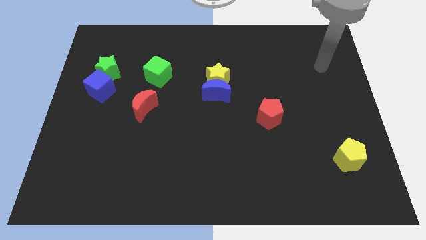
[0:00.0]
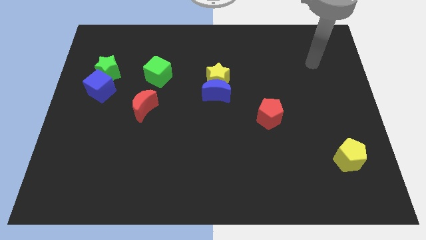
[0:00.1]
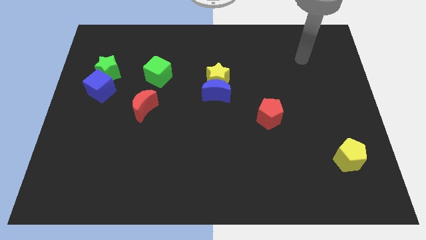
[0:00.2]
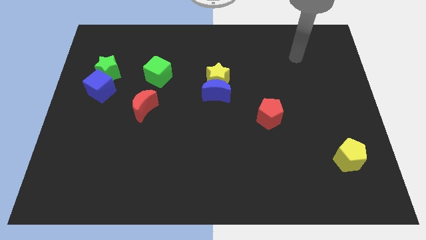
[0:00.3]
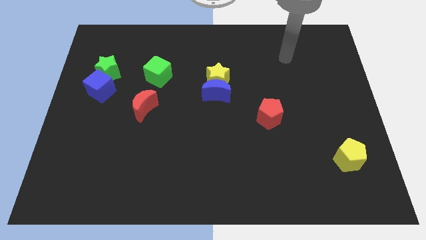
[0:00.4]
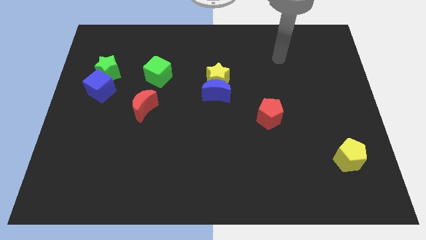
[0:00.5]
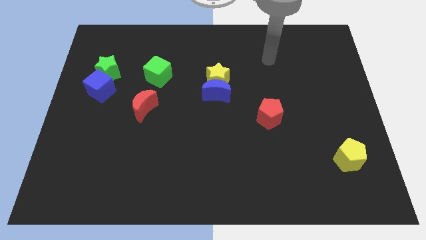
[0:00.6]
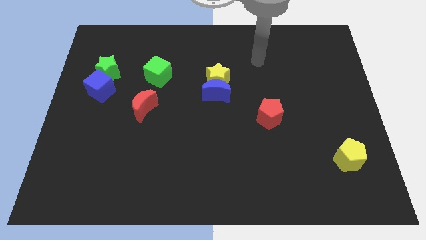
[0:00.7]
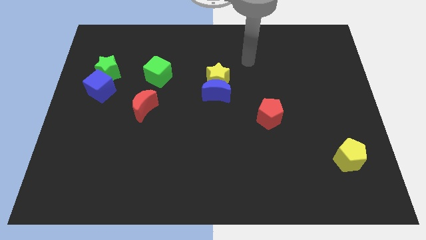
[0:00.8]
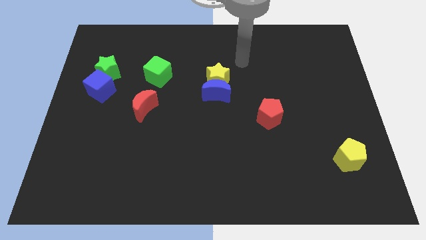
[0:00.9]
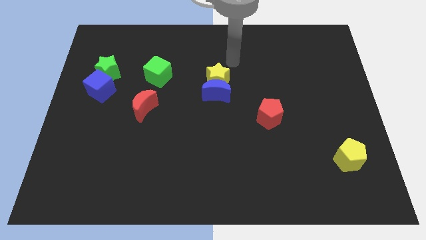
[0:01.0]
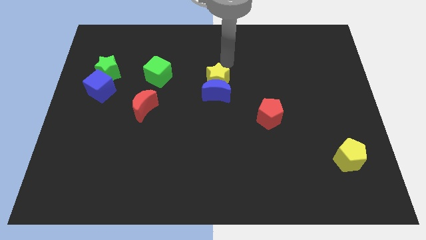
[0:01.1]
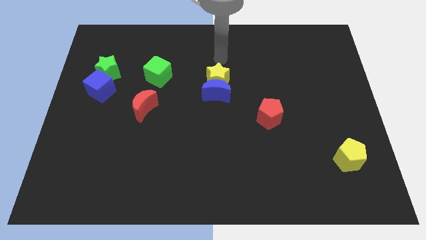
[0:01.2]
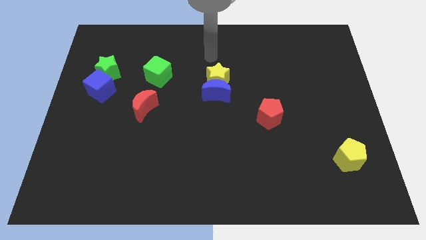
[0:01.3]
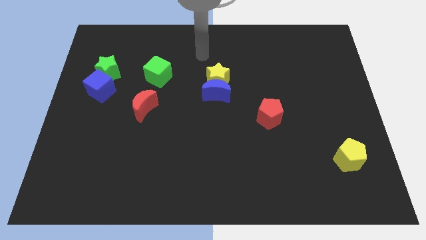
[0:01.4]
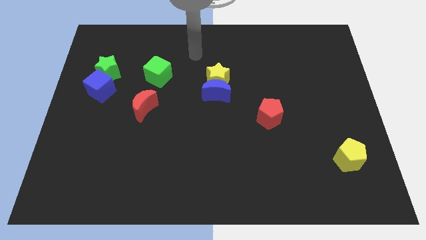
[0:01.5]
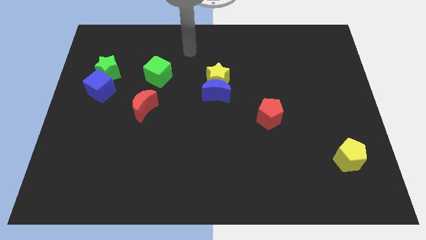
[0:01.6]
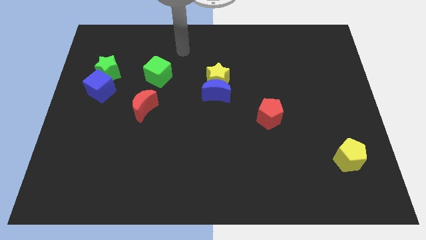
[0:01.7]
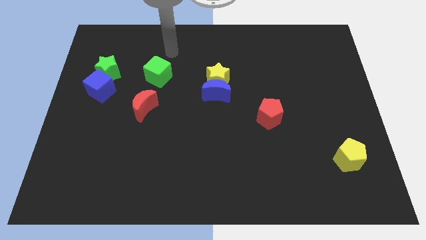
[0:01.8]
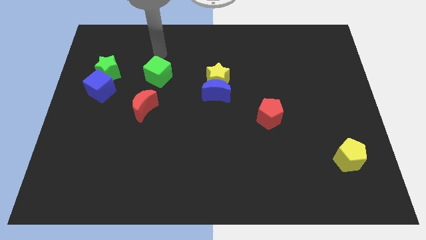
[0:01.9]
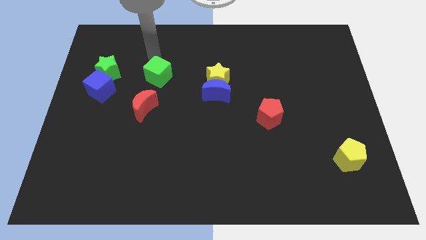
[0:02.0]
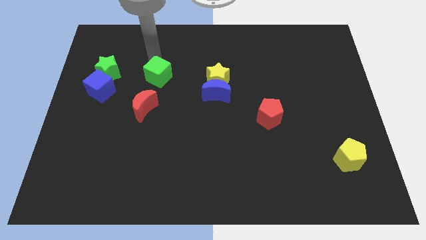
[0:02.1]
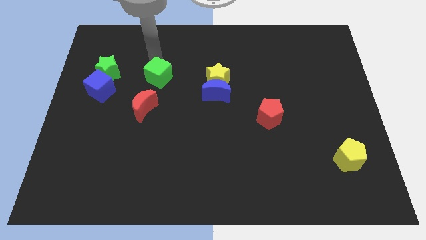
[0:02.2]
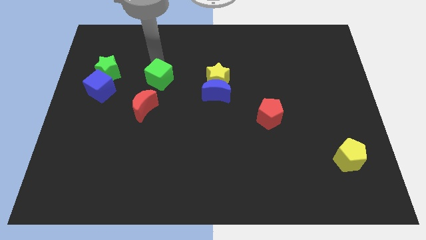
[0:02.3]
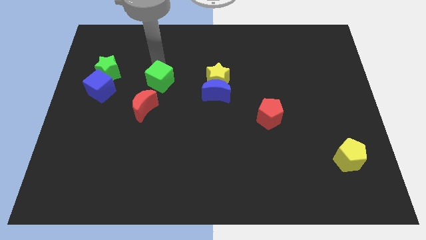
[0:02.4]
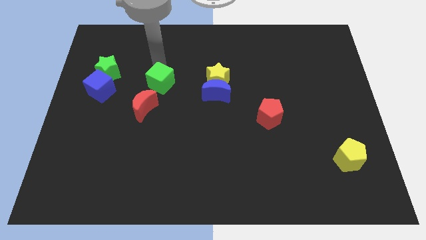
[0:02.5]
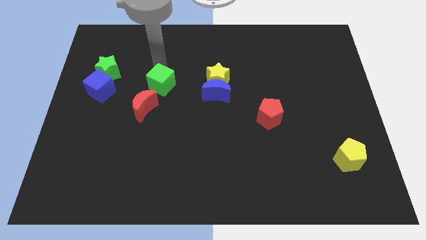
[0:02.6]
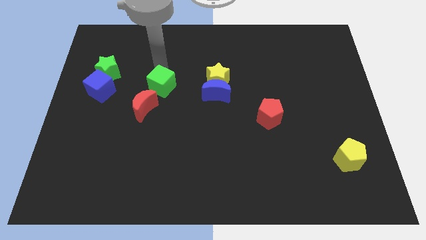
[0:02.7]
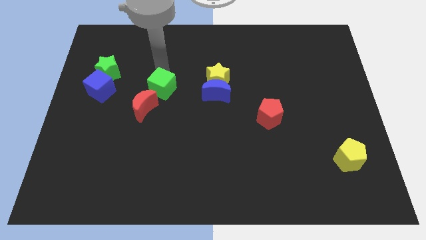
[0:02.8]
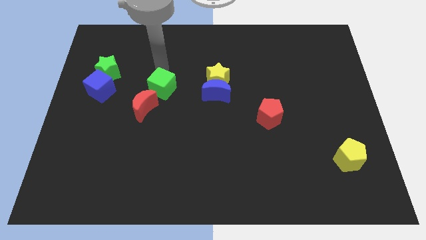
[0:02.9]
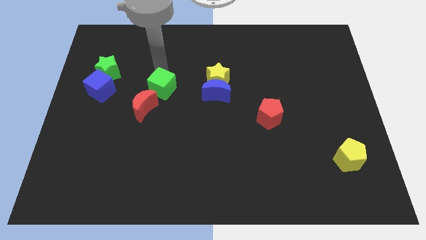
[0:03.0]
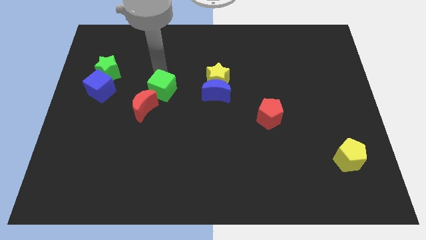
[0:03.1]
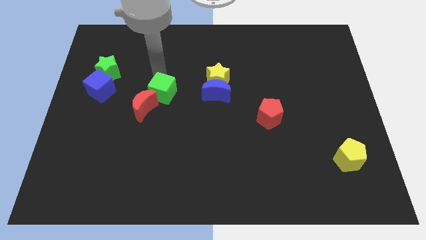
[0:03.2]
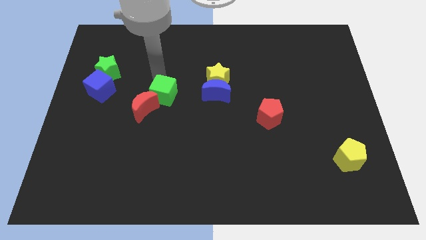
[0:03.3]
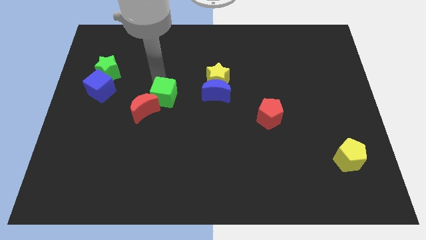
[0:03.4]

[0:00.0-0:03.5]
push the green cube down somewhat

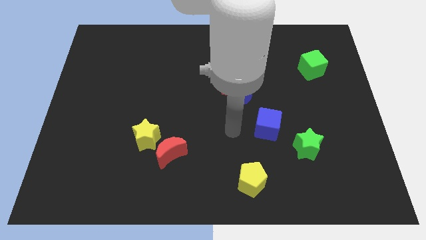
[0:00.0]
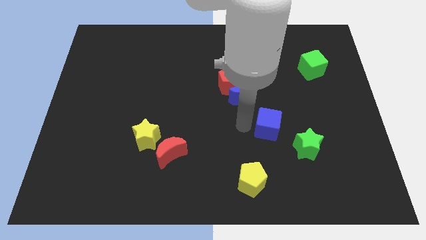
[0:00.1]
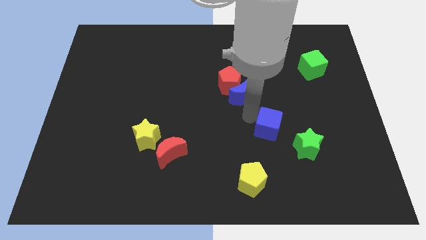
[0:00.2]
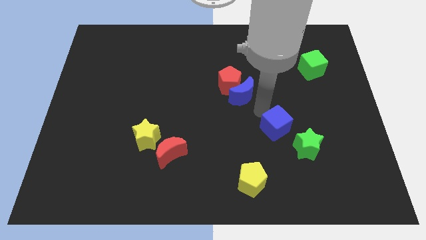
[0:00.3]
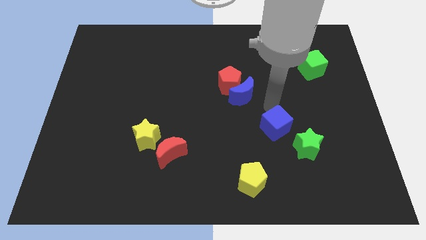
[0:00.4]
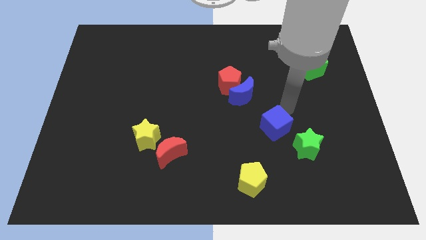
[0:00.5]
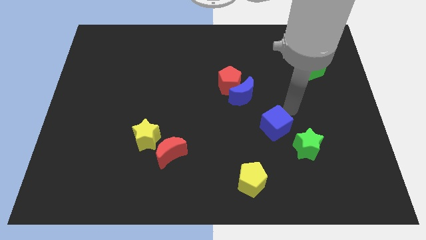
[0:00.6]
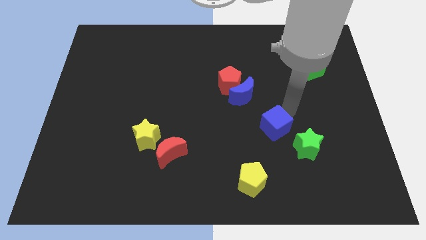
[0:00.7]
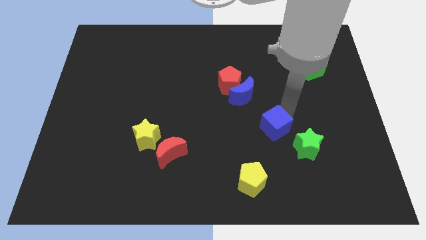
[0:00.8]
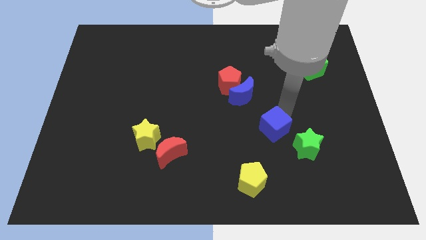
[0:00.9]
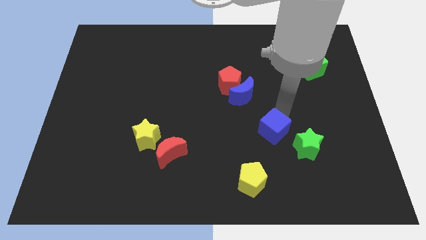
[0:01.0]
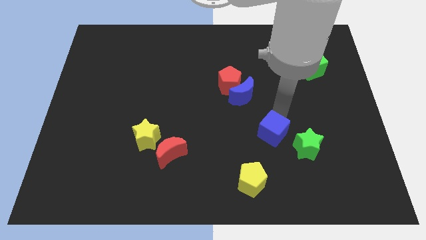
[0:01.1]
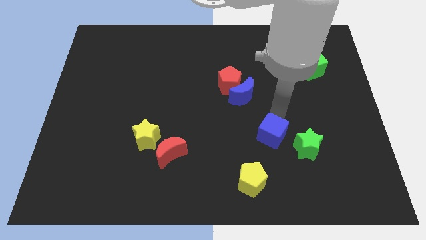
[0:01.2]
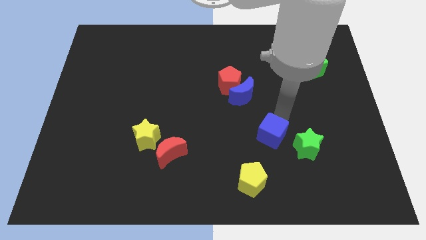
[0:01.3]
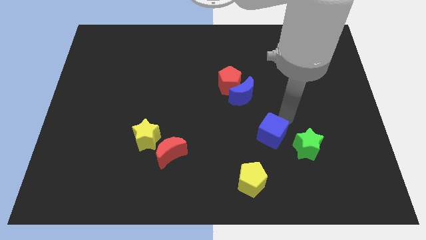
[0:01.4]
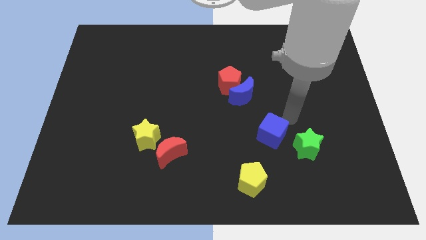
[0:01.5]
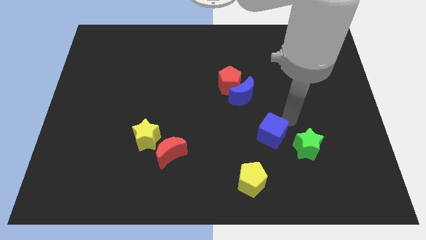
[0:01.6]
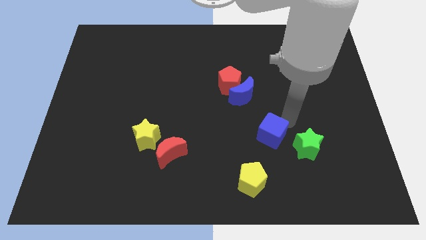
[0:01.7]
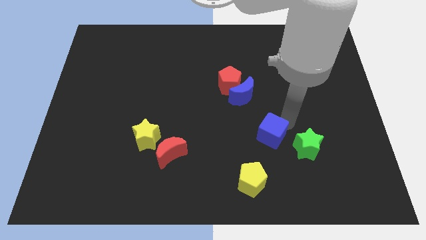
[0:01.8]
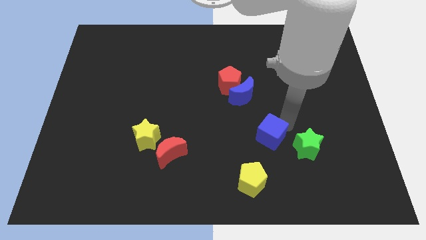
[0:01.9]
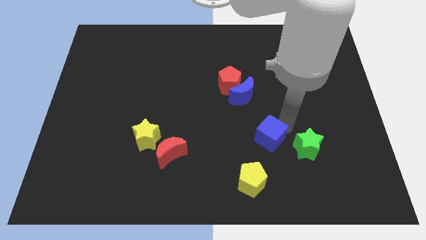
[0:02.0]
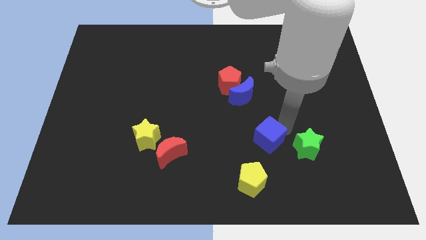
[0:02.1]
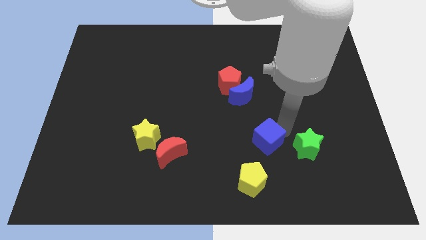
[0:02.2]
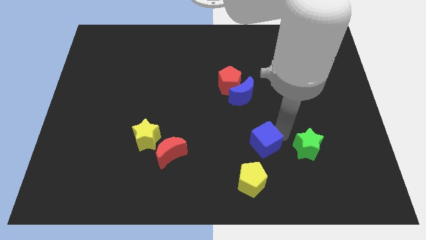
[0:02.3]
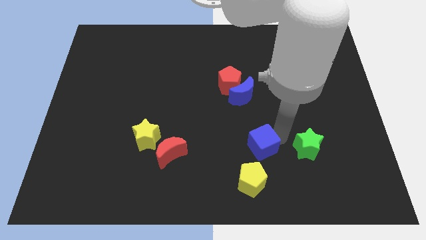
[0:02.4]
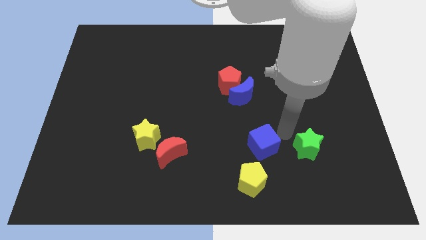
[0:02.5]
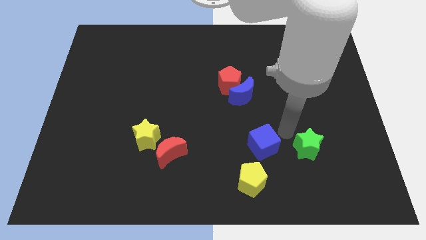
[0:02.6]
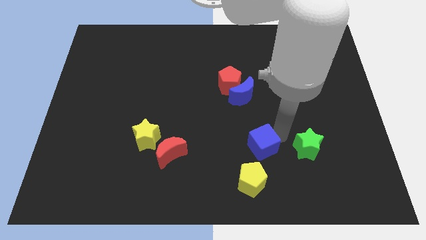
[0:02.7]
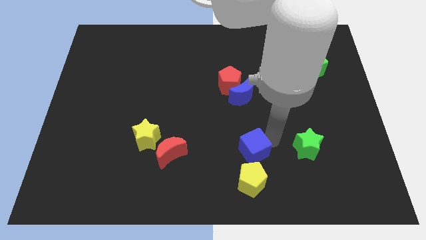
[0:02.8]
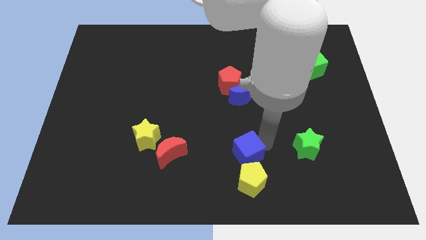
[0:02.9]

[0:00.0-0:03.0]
slightly move the blue cube diagonally down and to the left

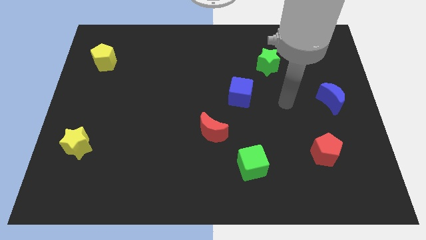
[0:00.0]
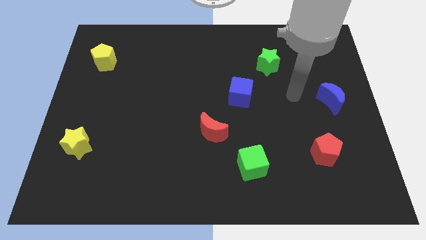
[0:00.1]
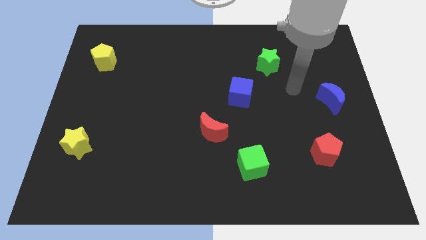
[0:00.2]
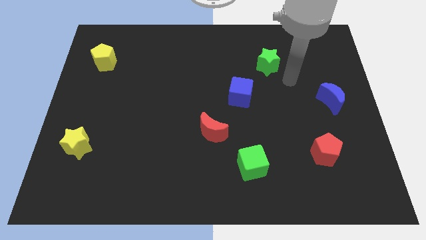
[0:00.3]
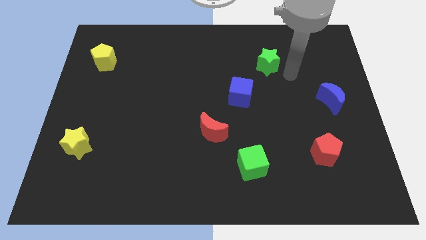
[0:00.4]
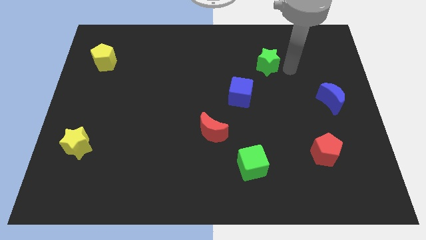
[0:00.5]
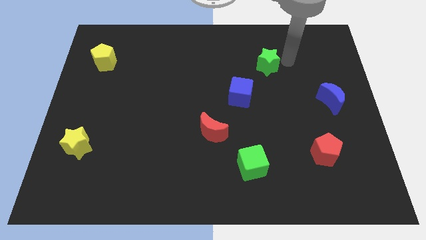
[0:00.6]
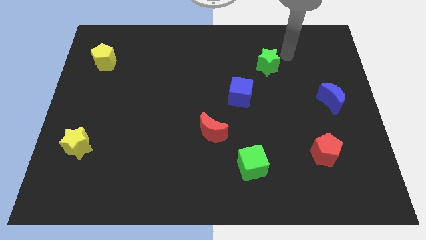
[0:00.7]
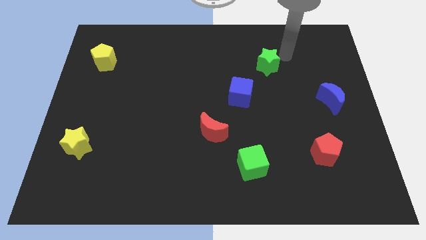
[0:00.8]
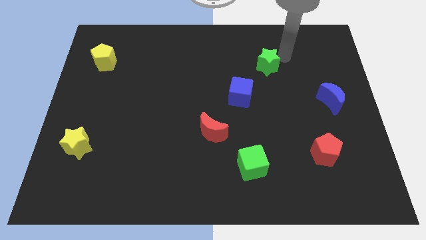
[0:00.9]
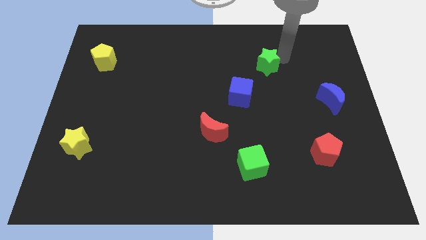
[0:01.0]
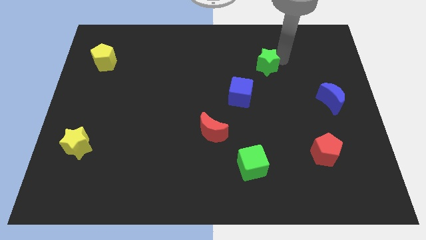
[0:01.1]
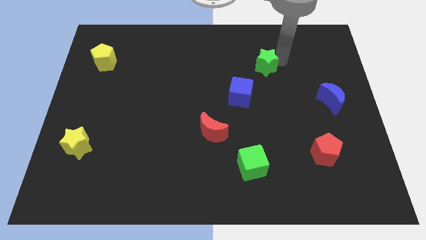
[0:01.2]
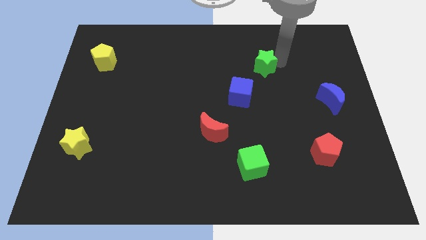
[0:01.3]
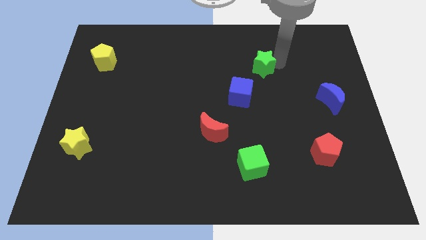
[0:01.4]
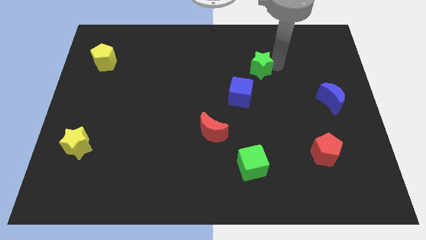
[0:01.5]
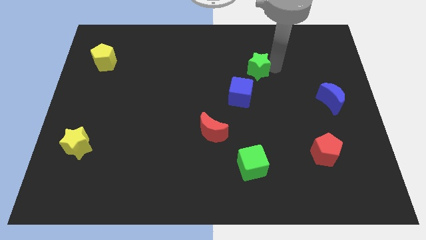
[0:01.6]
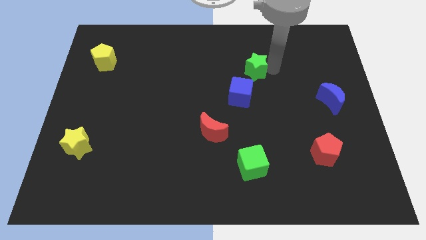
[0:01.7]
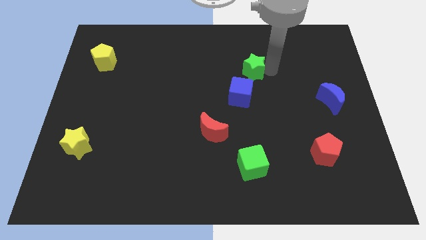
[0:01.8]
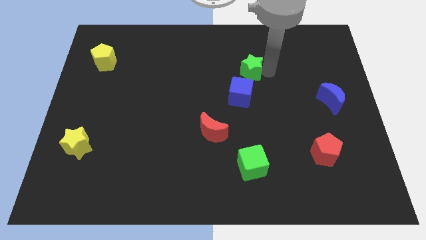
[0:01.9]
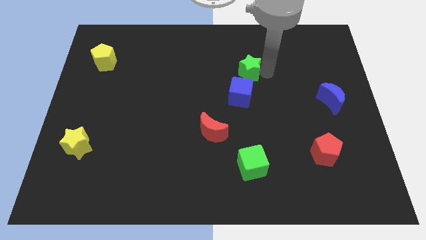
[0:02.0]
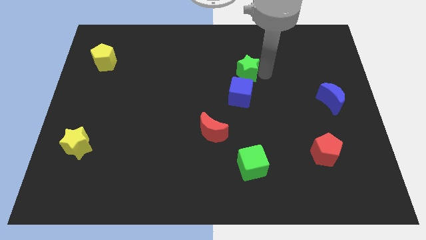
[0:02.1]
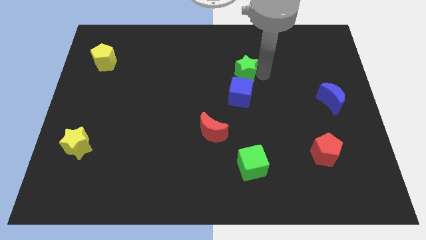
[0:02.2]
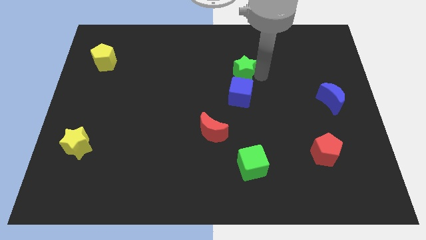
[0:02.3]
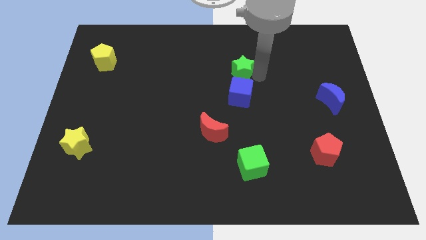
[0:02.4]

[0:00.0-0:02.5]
slightly slide the green star down and to the left diagonally
